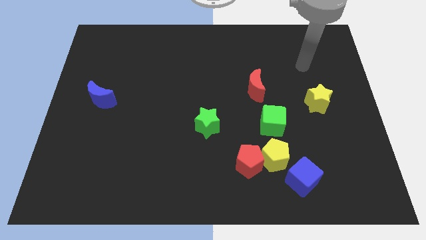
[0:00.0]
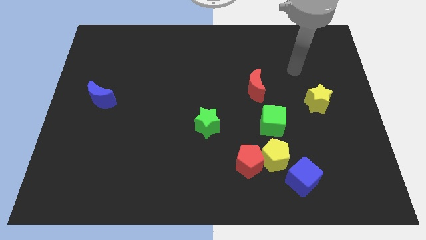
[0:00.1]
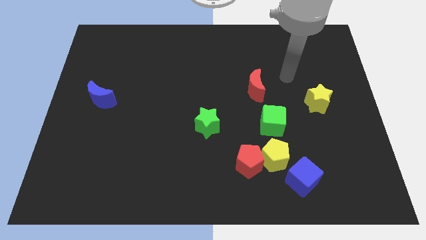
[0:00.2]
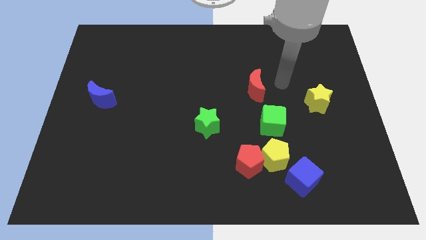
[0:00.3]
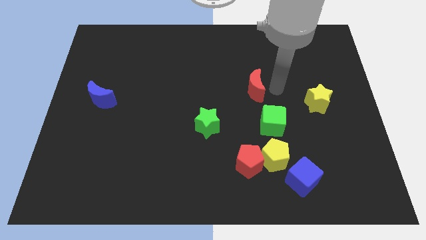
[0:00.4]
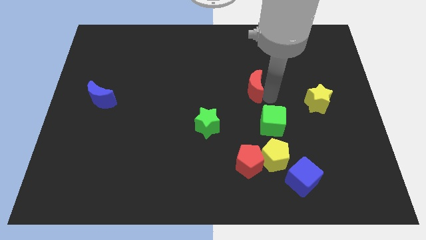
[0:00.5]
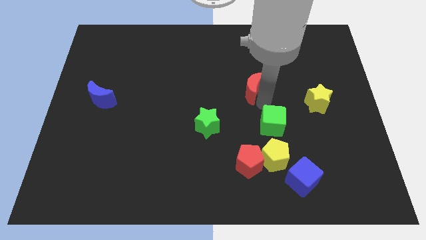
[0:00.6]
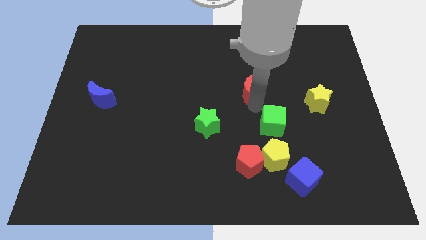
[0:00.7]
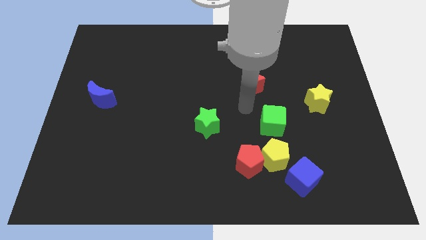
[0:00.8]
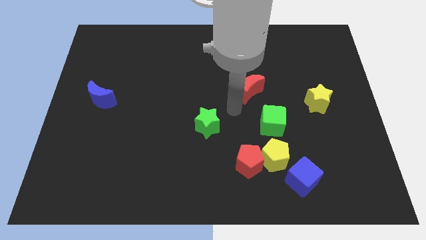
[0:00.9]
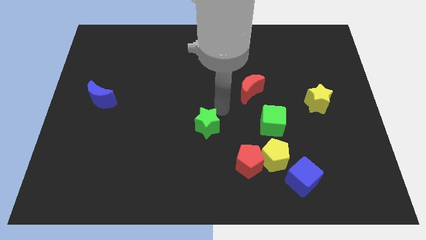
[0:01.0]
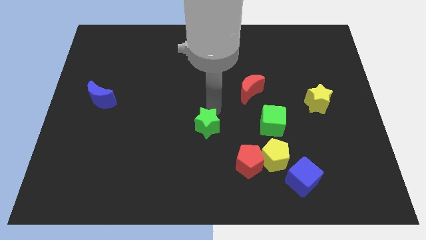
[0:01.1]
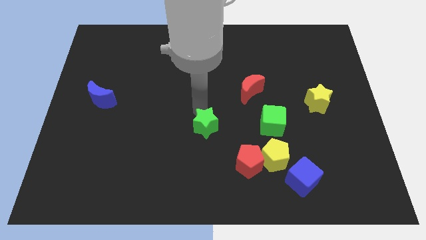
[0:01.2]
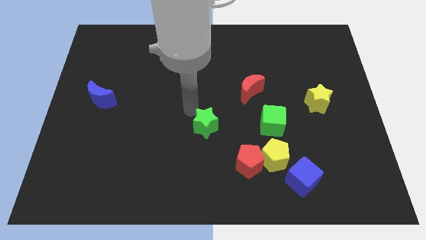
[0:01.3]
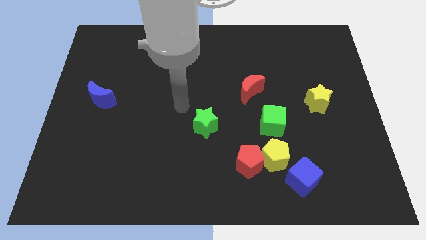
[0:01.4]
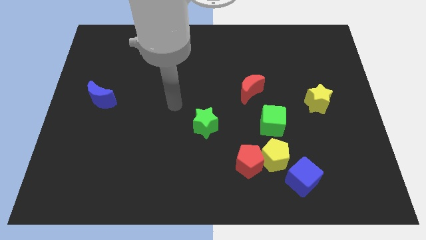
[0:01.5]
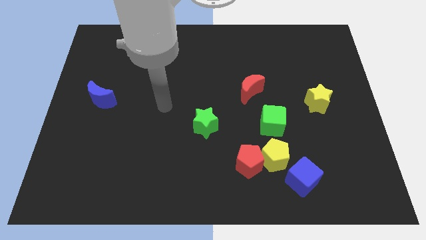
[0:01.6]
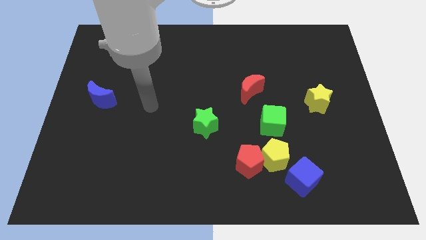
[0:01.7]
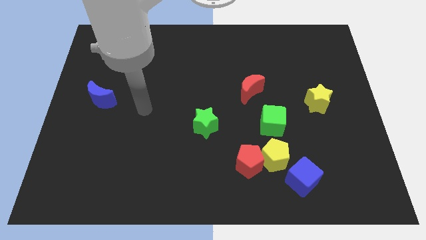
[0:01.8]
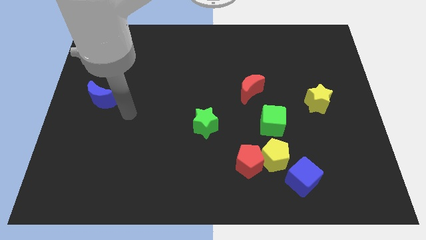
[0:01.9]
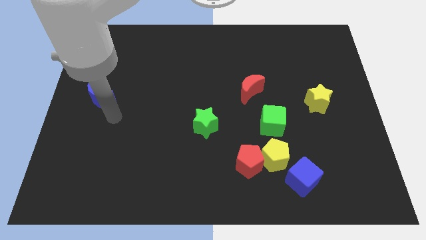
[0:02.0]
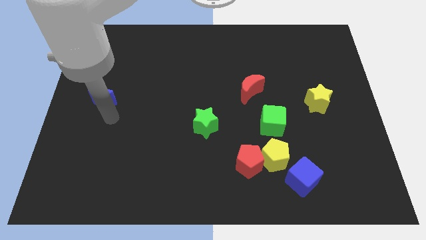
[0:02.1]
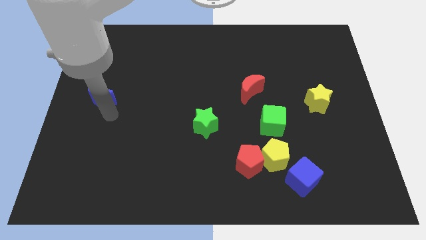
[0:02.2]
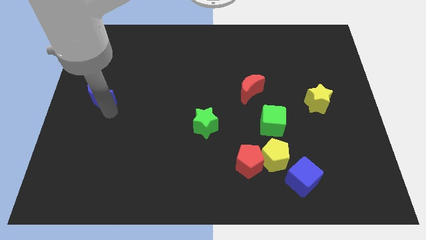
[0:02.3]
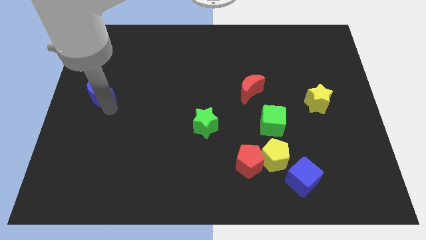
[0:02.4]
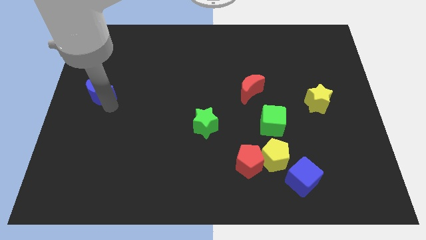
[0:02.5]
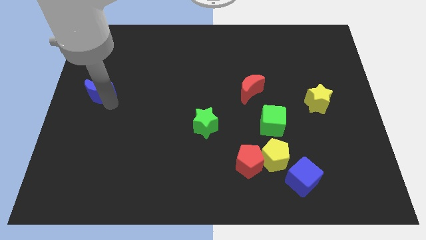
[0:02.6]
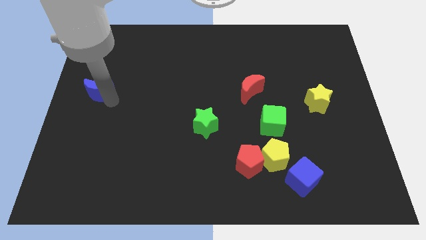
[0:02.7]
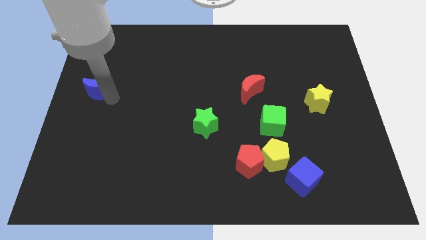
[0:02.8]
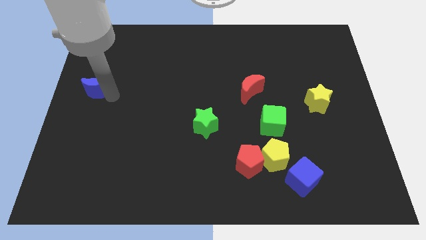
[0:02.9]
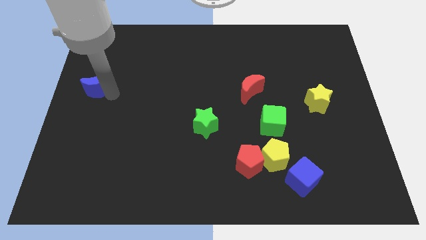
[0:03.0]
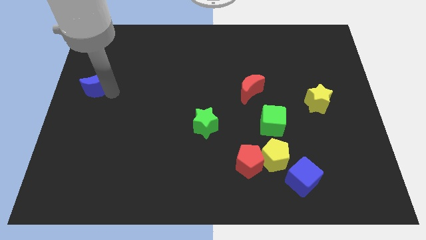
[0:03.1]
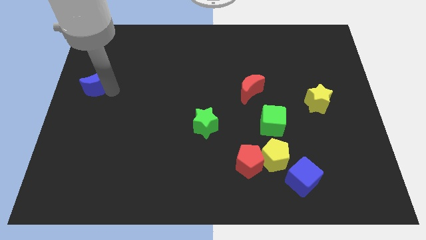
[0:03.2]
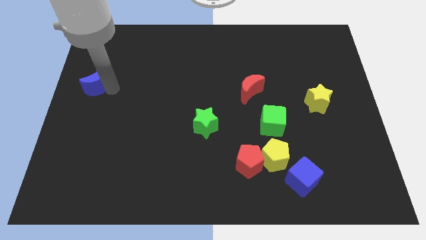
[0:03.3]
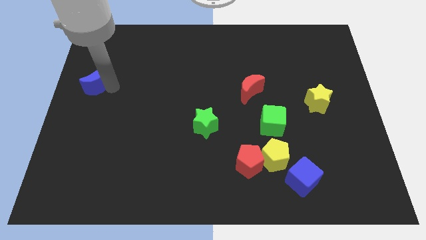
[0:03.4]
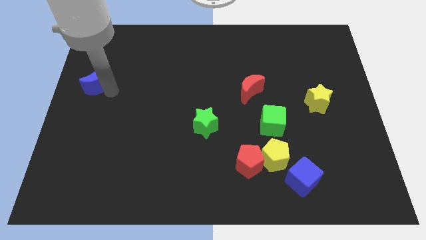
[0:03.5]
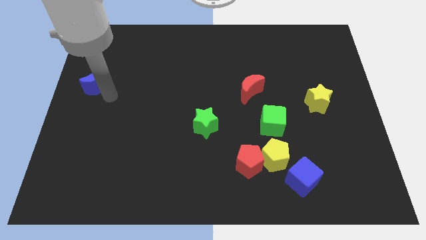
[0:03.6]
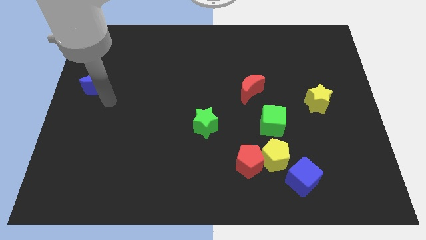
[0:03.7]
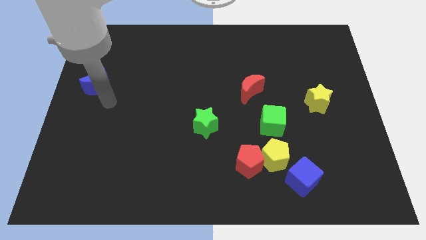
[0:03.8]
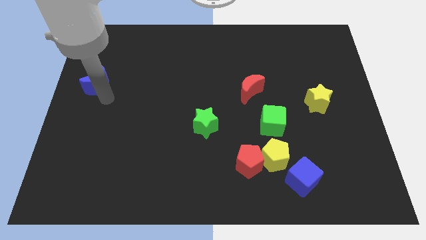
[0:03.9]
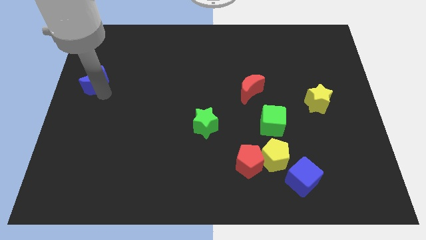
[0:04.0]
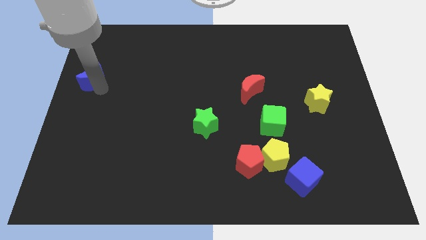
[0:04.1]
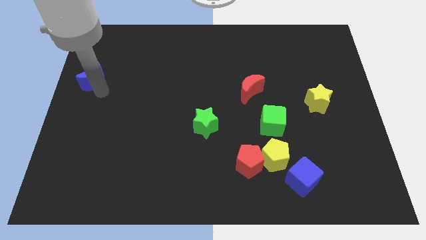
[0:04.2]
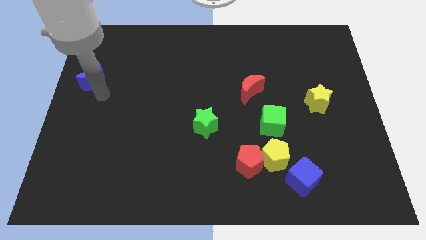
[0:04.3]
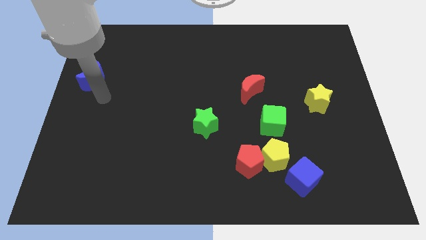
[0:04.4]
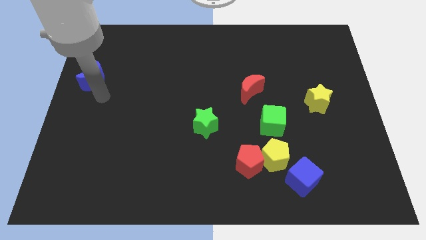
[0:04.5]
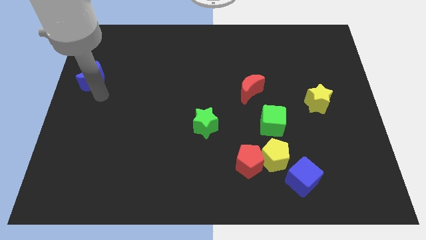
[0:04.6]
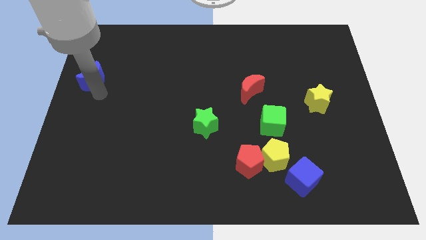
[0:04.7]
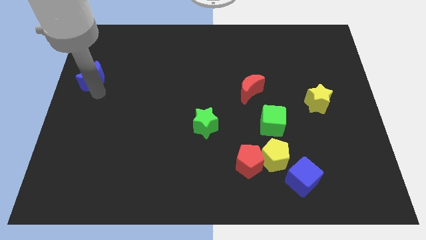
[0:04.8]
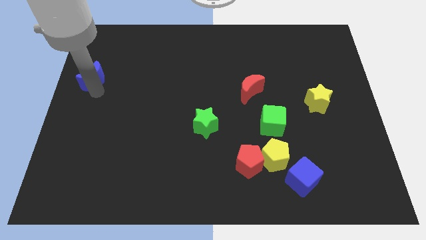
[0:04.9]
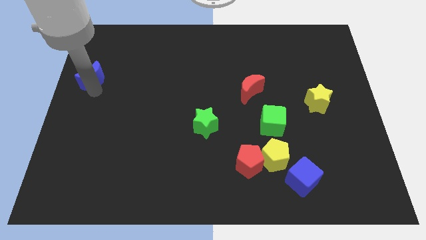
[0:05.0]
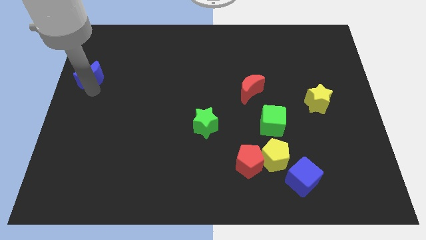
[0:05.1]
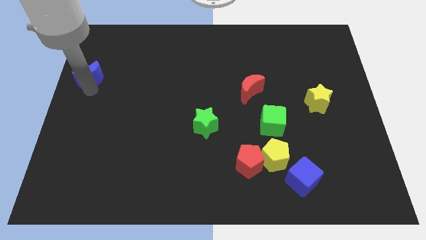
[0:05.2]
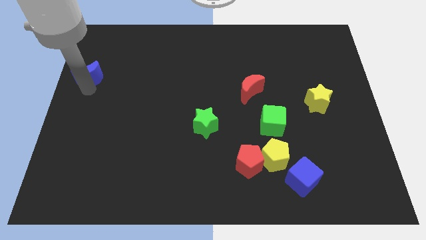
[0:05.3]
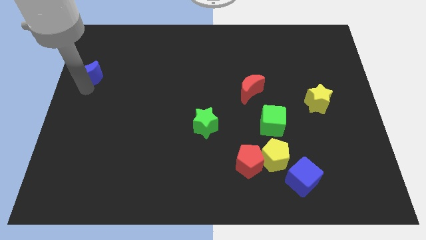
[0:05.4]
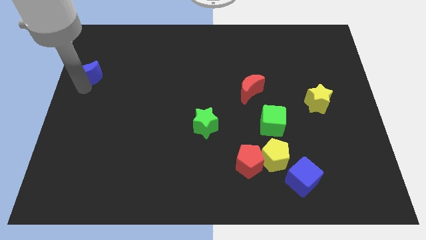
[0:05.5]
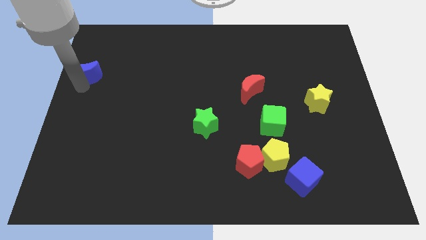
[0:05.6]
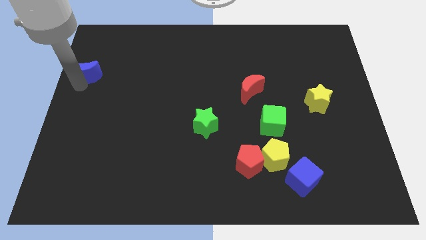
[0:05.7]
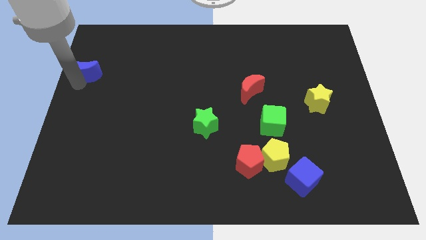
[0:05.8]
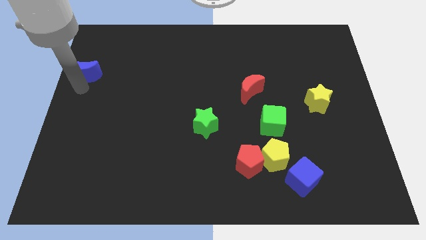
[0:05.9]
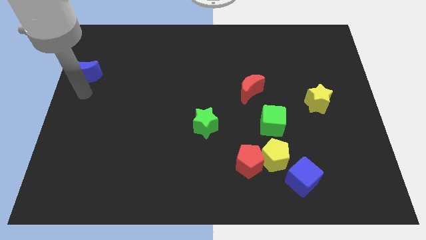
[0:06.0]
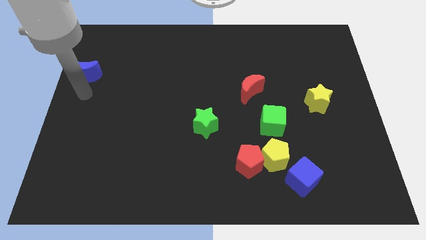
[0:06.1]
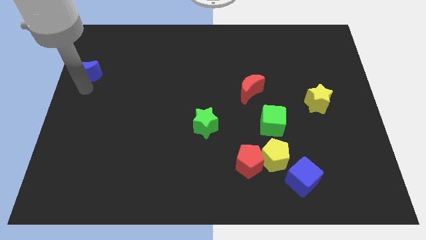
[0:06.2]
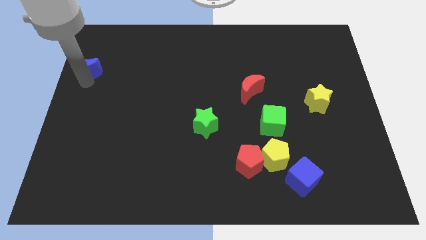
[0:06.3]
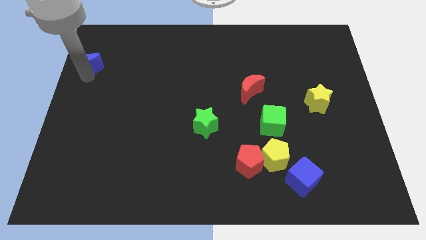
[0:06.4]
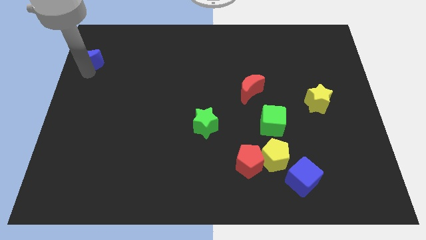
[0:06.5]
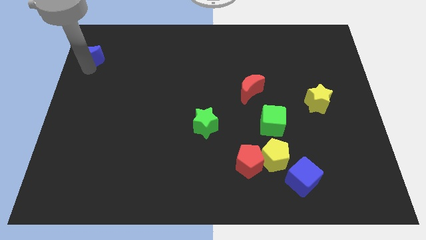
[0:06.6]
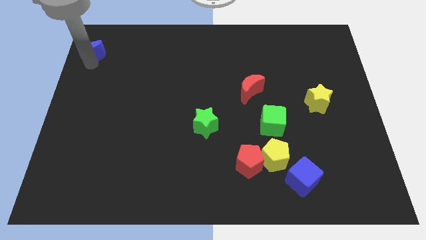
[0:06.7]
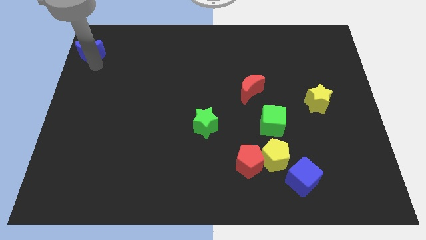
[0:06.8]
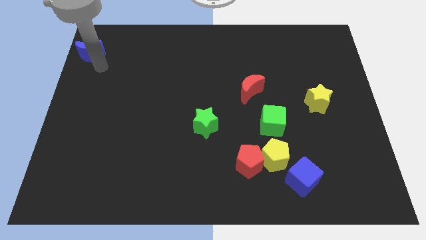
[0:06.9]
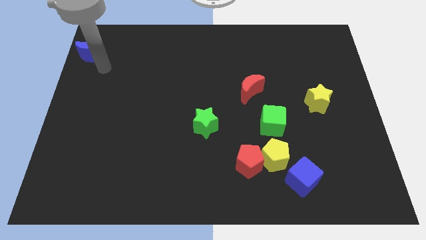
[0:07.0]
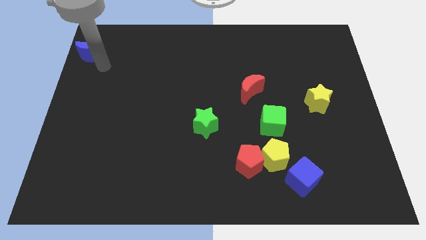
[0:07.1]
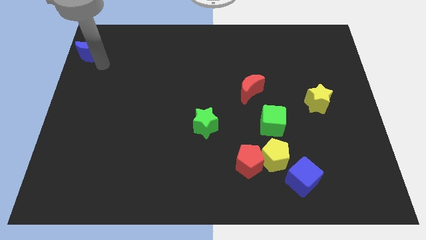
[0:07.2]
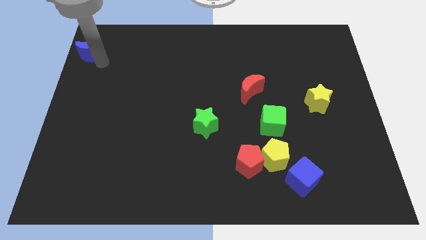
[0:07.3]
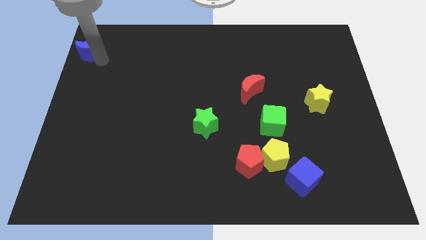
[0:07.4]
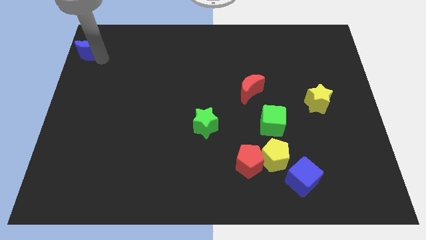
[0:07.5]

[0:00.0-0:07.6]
slide the blue moon to the top left
